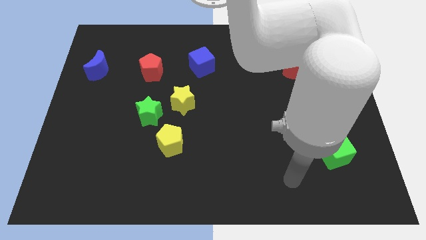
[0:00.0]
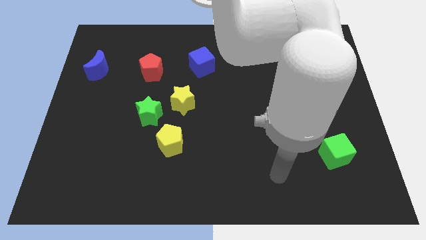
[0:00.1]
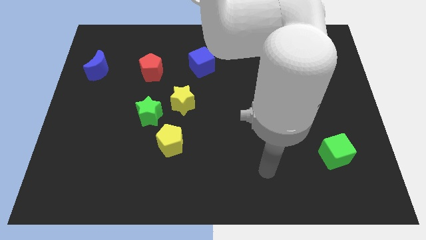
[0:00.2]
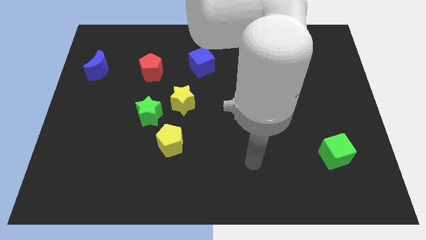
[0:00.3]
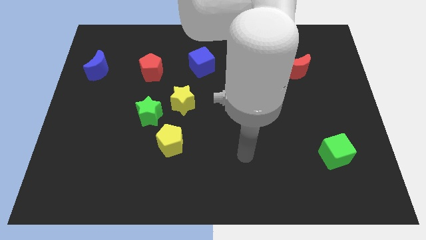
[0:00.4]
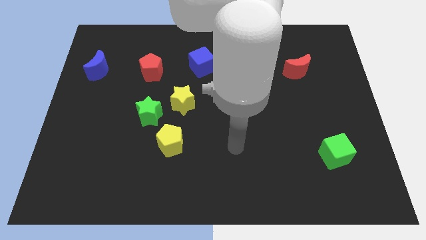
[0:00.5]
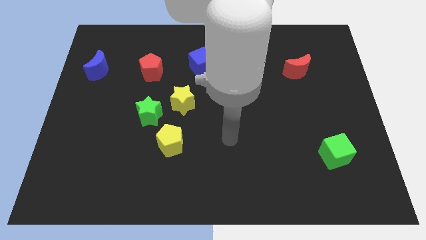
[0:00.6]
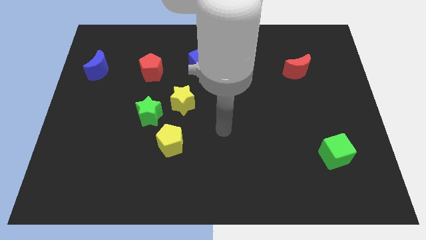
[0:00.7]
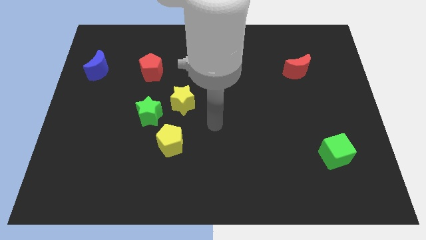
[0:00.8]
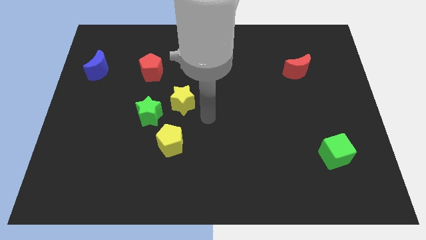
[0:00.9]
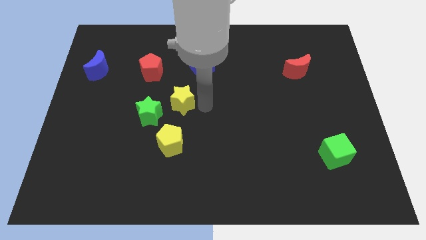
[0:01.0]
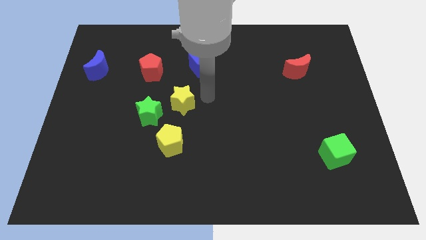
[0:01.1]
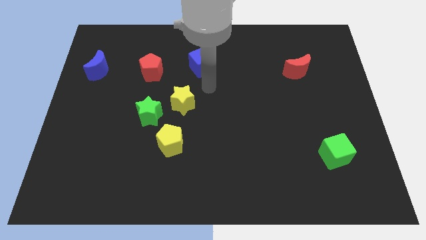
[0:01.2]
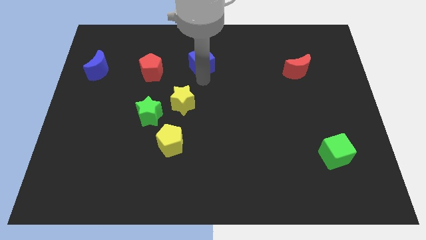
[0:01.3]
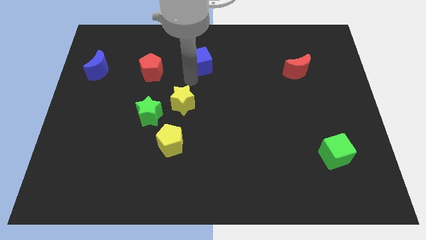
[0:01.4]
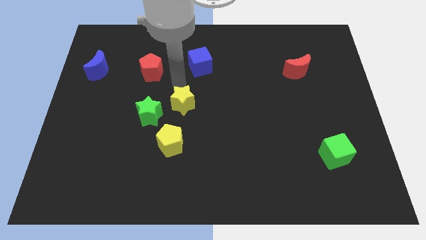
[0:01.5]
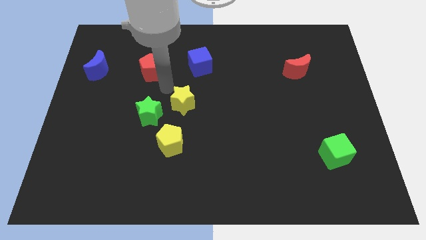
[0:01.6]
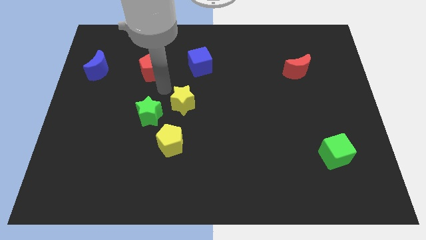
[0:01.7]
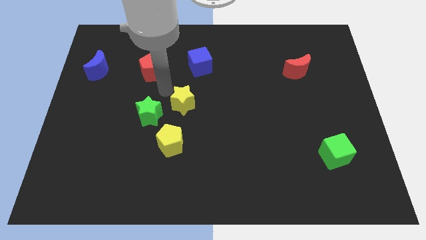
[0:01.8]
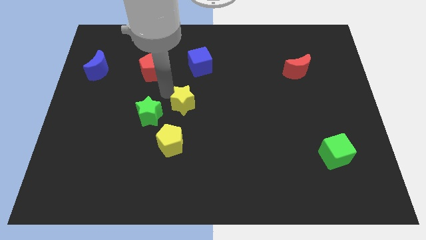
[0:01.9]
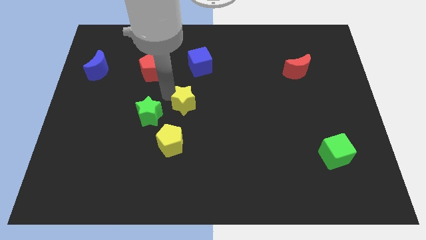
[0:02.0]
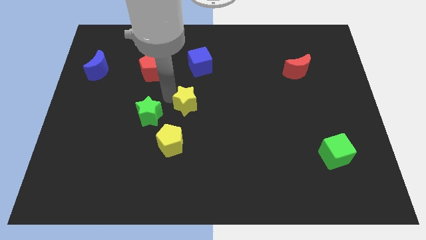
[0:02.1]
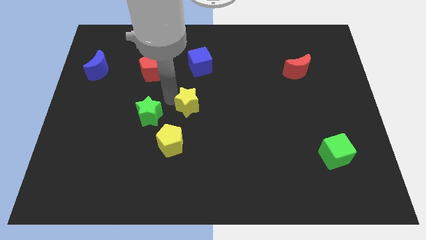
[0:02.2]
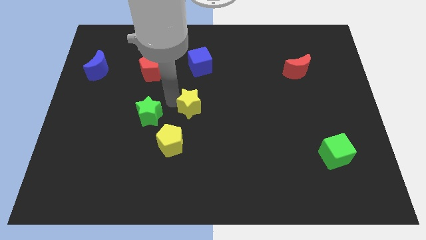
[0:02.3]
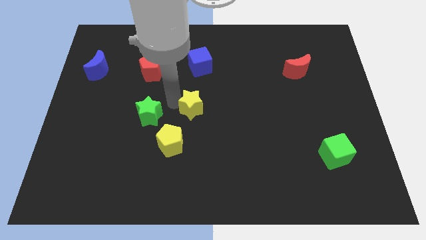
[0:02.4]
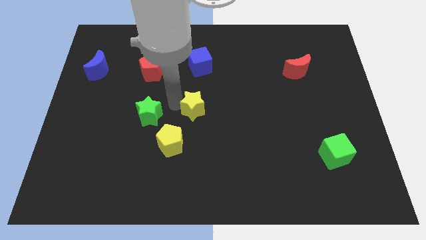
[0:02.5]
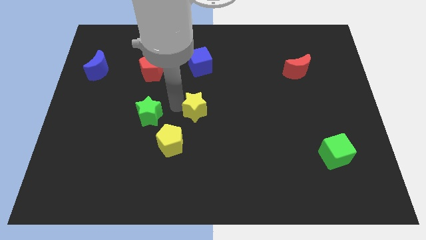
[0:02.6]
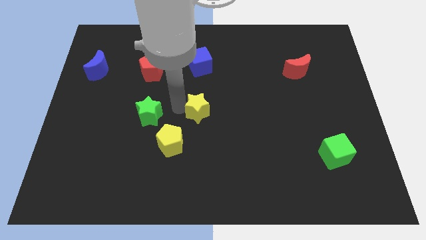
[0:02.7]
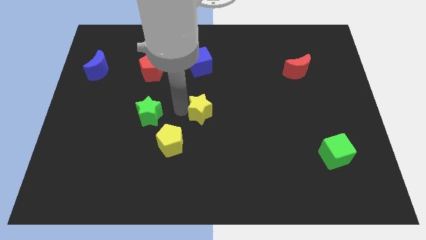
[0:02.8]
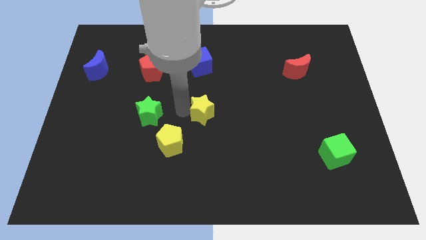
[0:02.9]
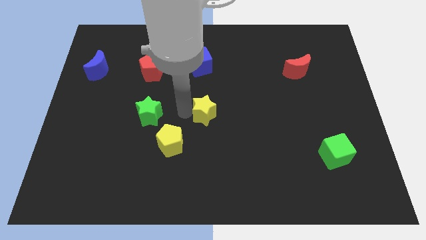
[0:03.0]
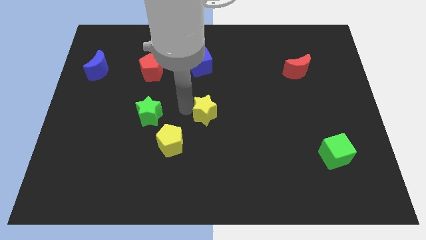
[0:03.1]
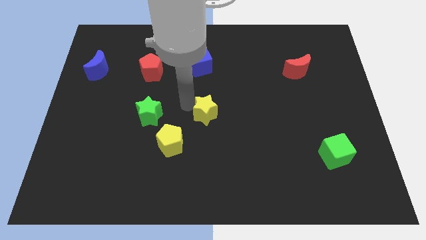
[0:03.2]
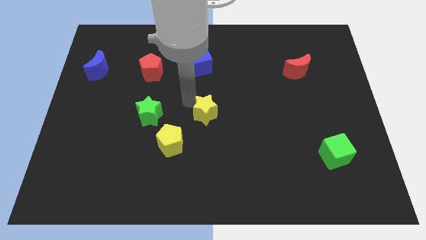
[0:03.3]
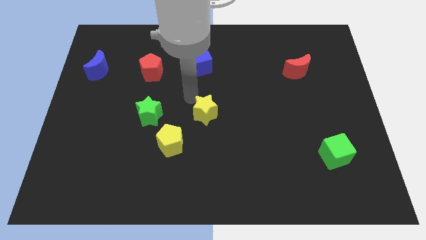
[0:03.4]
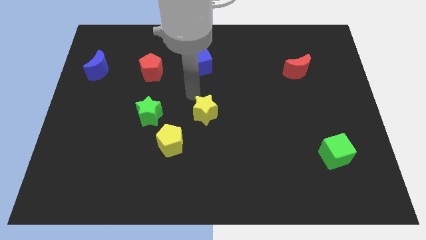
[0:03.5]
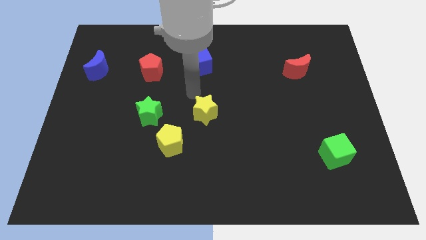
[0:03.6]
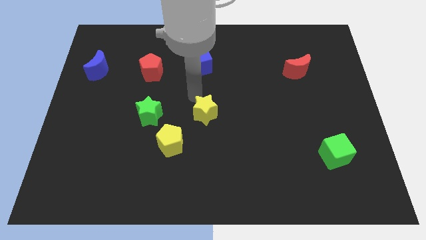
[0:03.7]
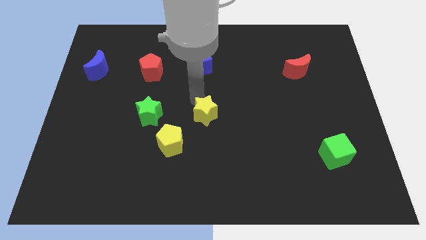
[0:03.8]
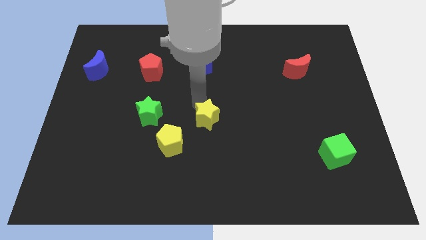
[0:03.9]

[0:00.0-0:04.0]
slightly move the yellow star diagonally down and right

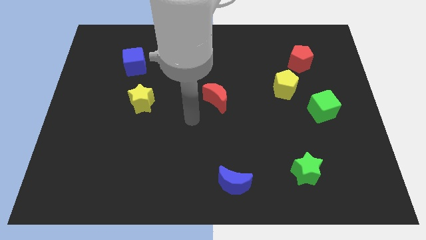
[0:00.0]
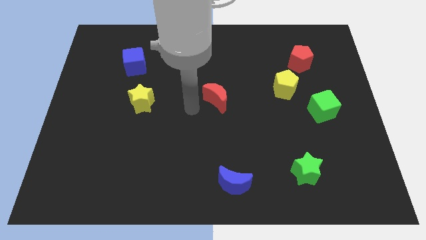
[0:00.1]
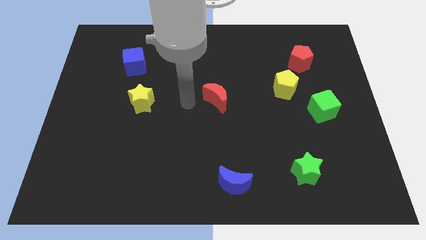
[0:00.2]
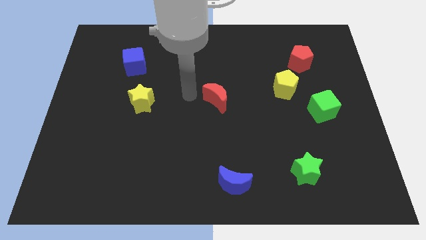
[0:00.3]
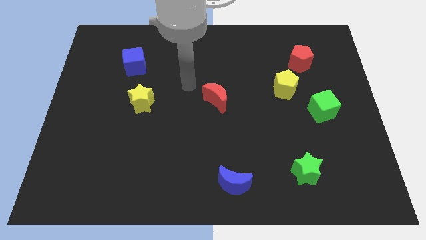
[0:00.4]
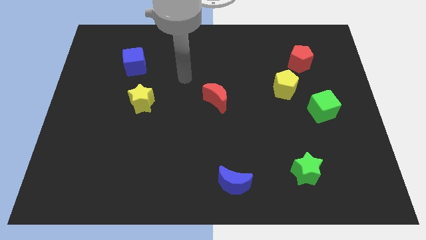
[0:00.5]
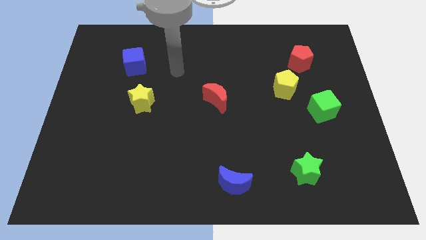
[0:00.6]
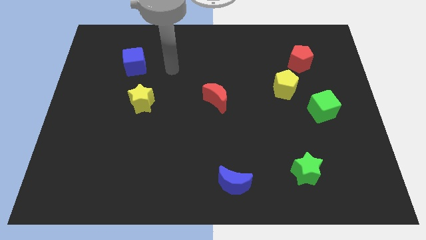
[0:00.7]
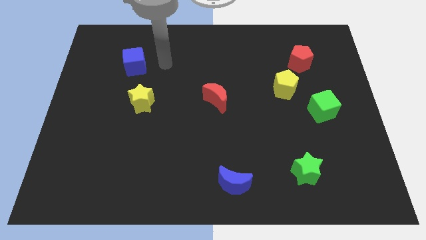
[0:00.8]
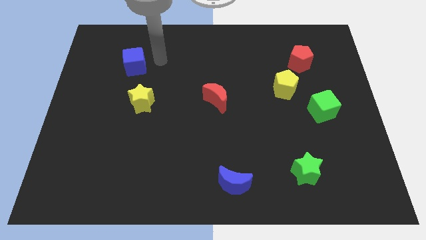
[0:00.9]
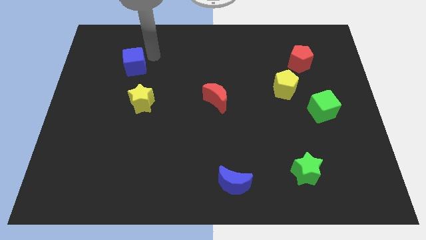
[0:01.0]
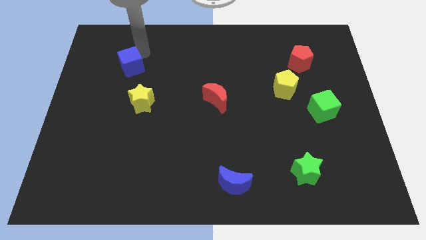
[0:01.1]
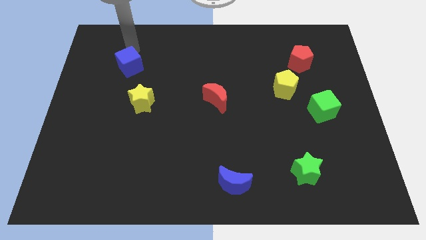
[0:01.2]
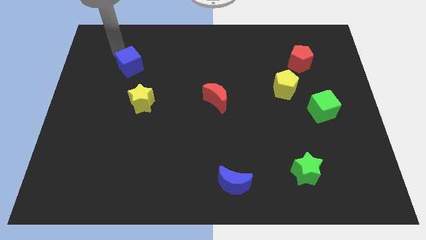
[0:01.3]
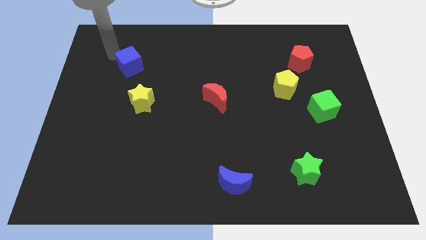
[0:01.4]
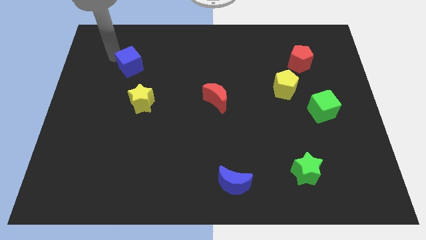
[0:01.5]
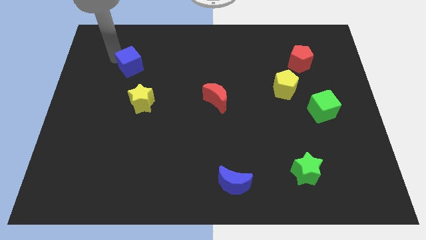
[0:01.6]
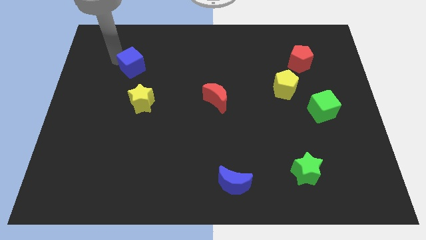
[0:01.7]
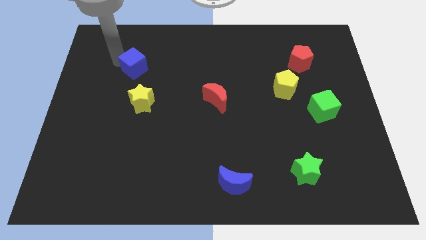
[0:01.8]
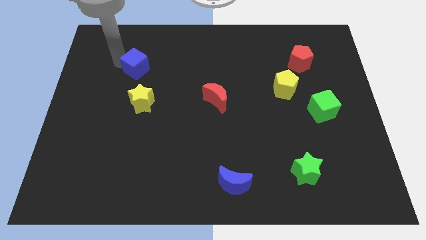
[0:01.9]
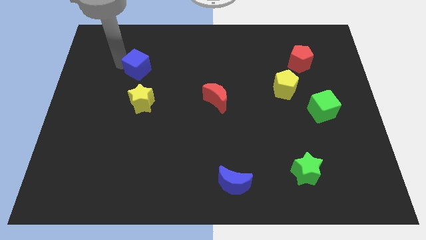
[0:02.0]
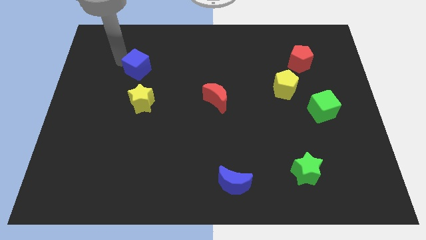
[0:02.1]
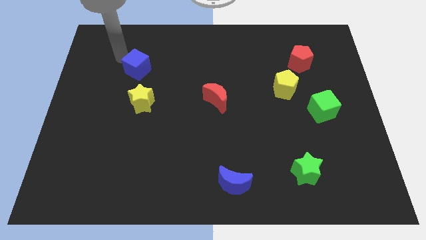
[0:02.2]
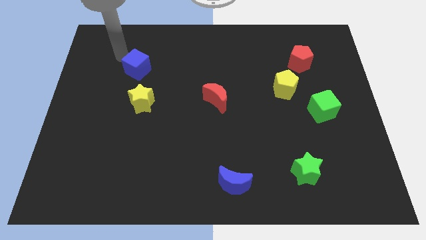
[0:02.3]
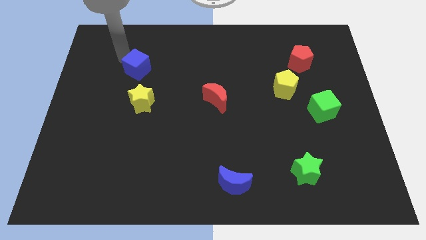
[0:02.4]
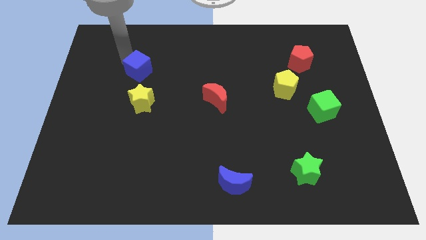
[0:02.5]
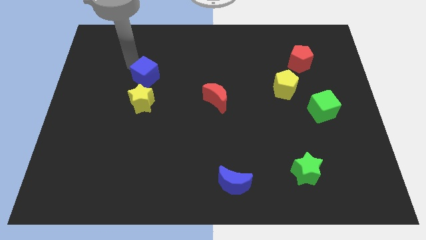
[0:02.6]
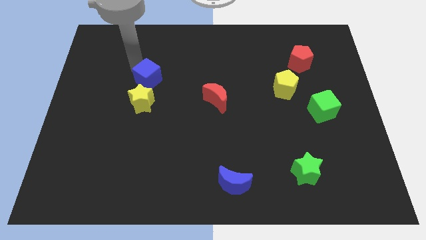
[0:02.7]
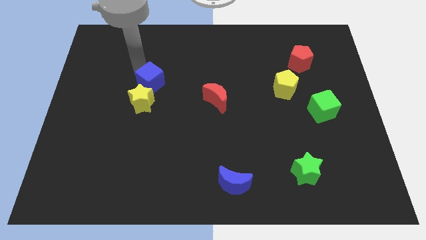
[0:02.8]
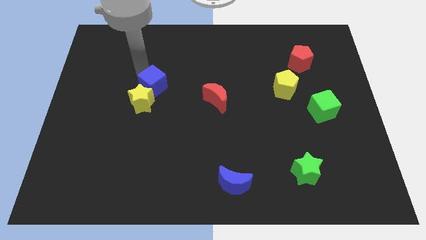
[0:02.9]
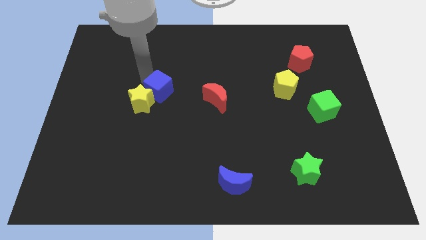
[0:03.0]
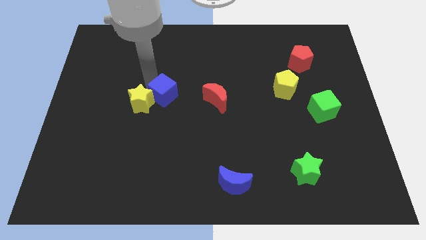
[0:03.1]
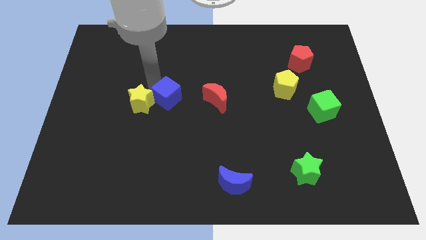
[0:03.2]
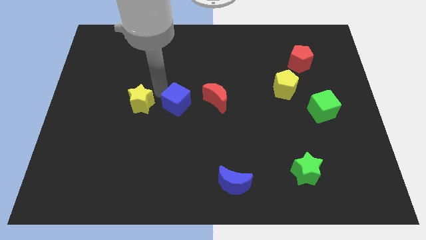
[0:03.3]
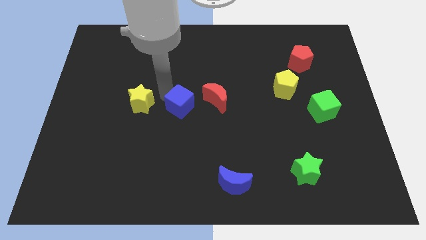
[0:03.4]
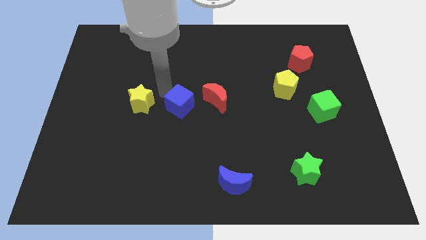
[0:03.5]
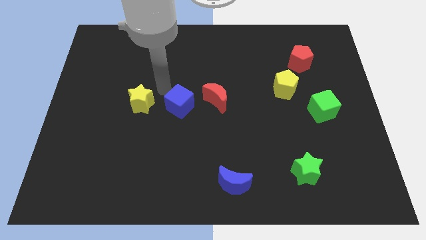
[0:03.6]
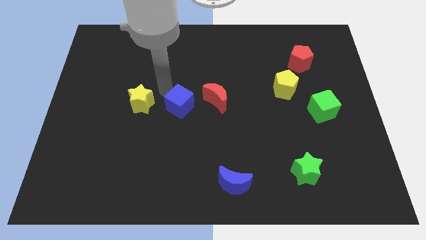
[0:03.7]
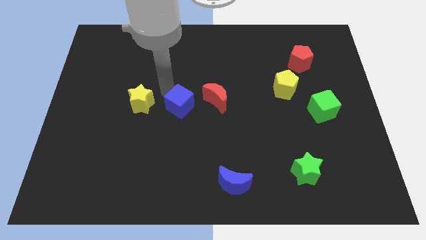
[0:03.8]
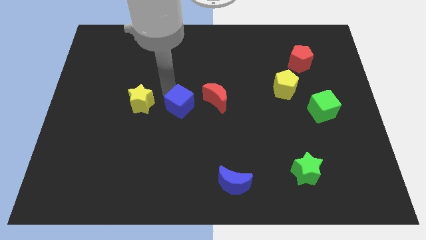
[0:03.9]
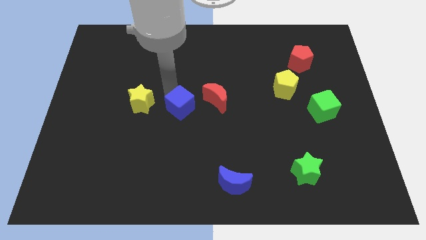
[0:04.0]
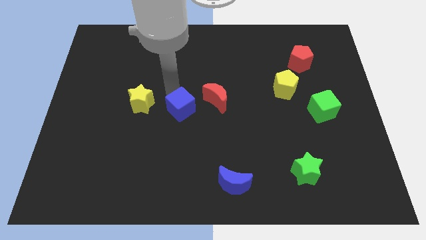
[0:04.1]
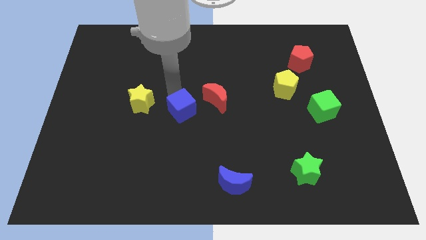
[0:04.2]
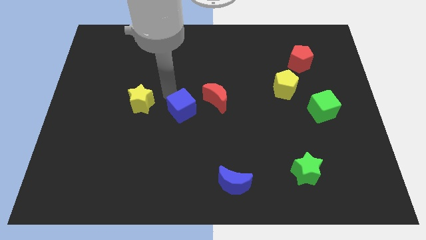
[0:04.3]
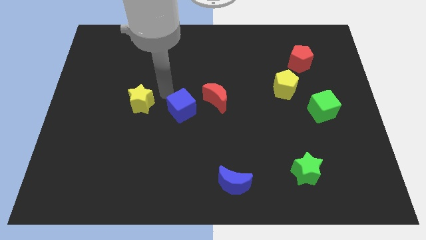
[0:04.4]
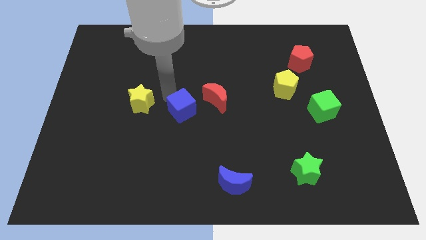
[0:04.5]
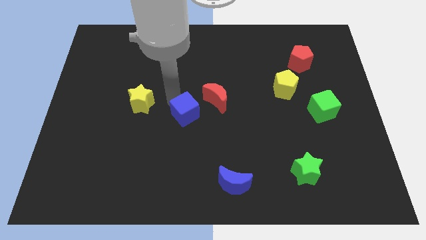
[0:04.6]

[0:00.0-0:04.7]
push the blue cube diagonally downwards and right
